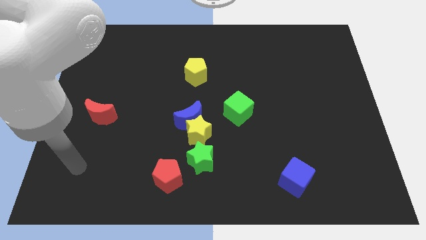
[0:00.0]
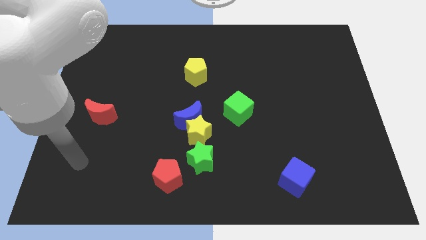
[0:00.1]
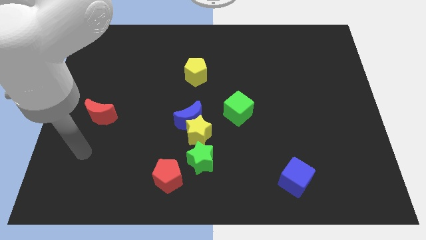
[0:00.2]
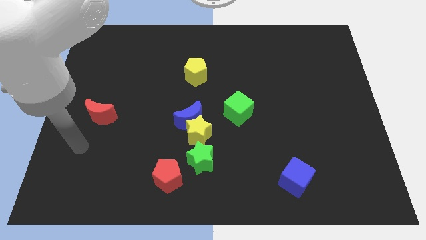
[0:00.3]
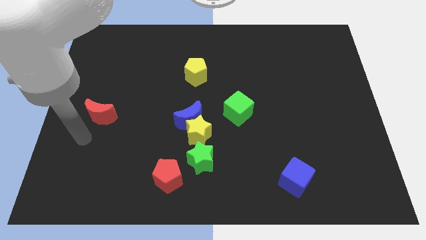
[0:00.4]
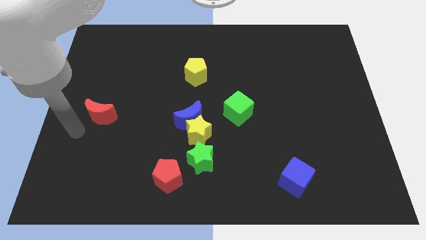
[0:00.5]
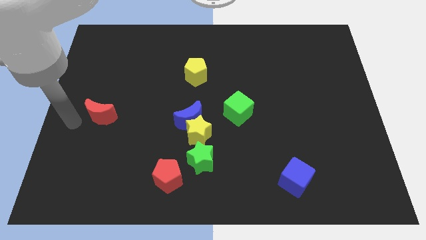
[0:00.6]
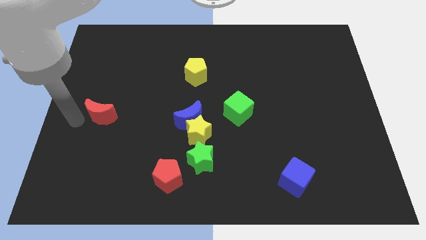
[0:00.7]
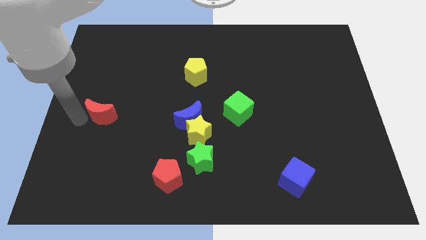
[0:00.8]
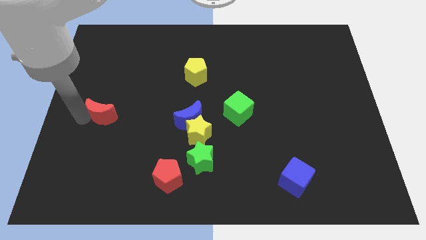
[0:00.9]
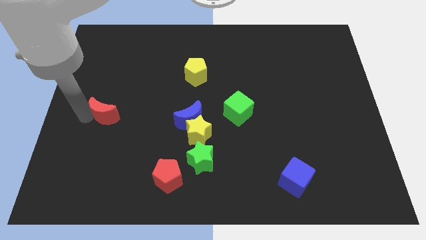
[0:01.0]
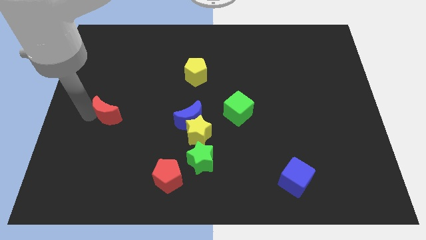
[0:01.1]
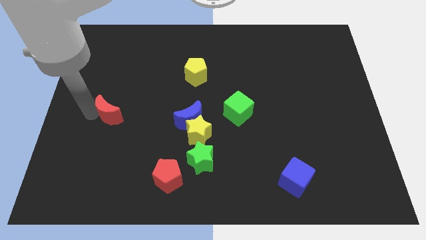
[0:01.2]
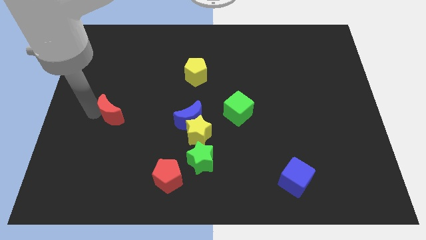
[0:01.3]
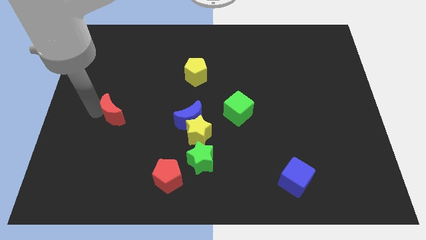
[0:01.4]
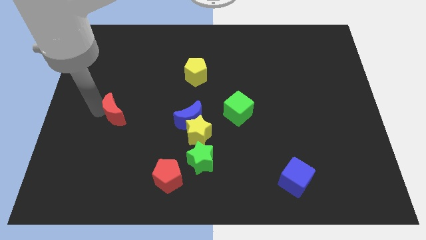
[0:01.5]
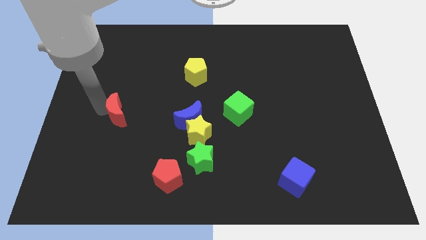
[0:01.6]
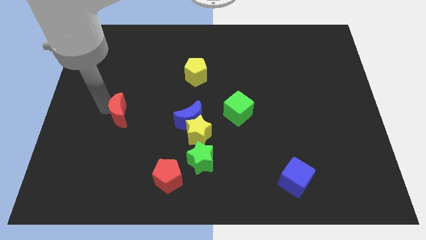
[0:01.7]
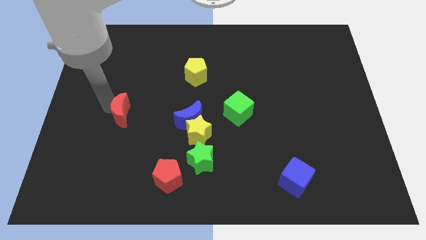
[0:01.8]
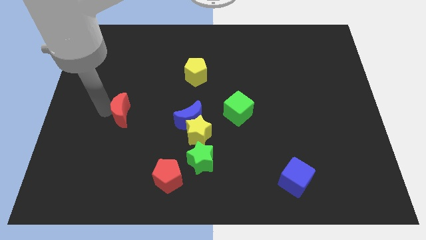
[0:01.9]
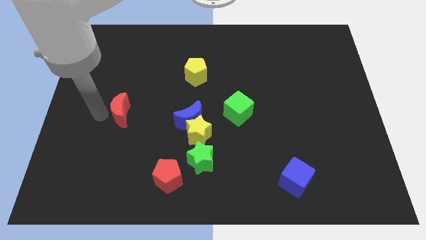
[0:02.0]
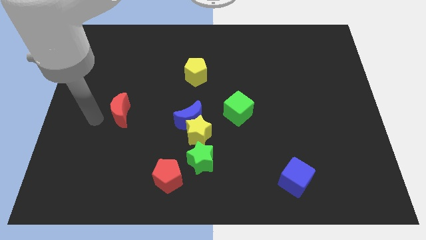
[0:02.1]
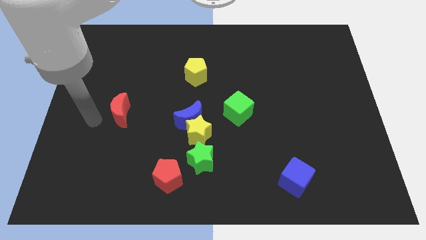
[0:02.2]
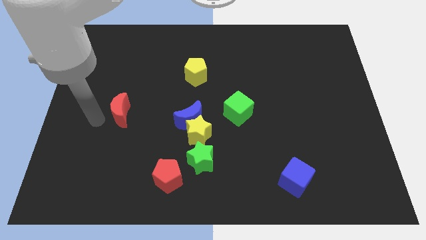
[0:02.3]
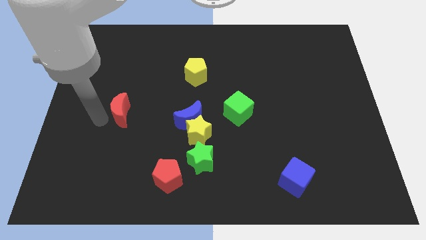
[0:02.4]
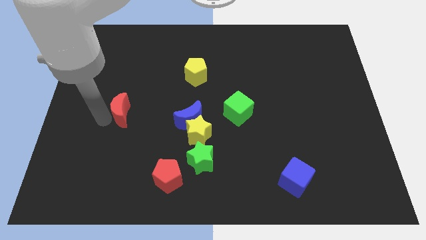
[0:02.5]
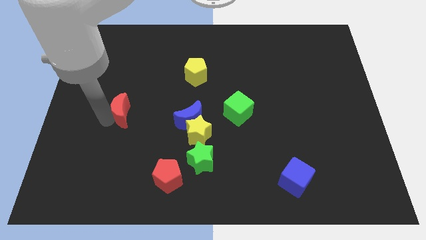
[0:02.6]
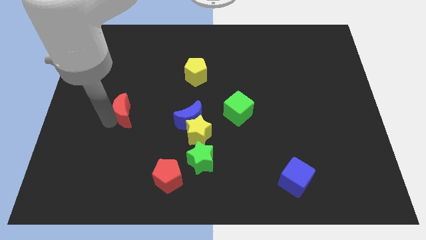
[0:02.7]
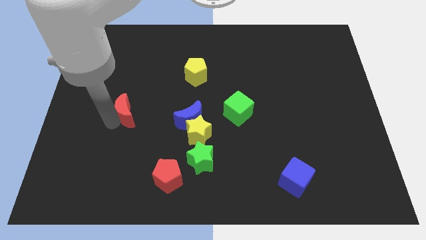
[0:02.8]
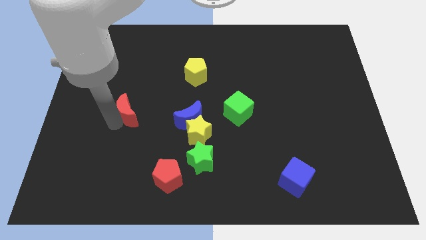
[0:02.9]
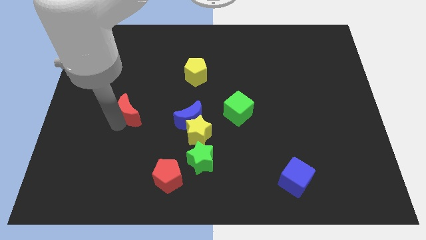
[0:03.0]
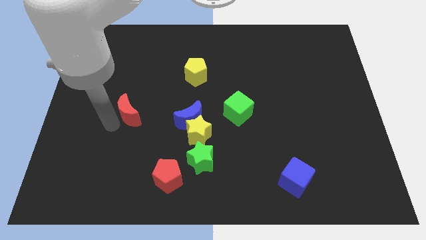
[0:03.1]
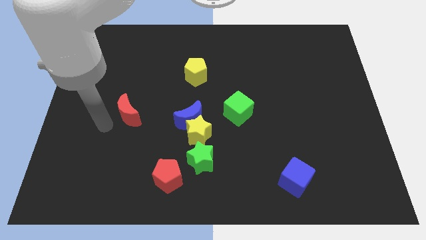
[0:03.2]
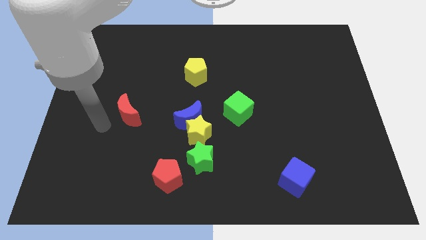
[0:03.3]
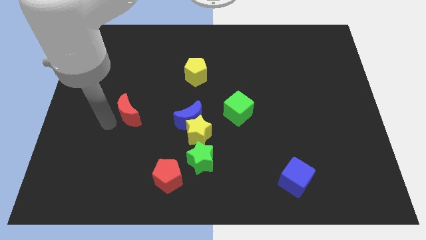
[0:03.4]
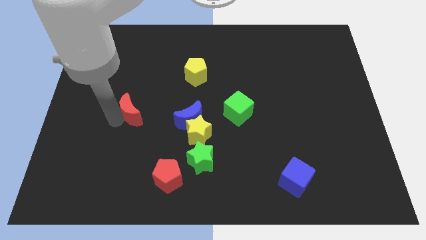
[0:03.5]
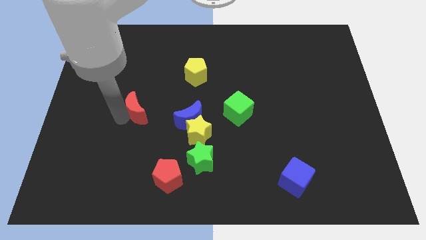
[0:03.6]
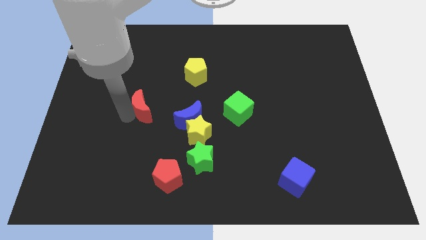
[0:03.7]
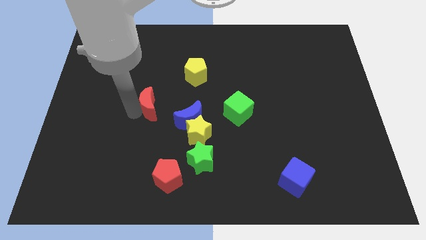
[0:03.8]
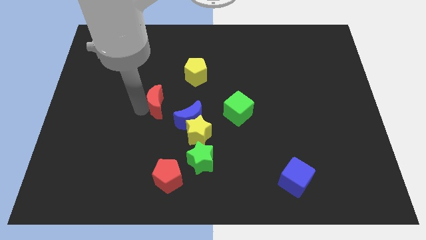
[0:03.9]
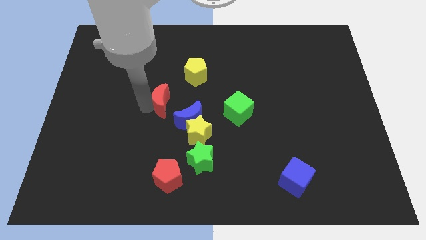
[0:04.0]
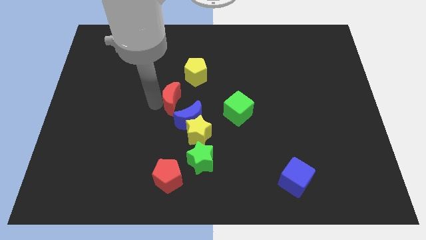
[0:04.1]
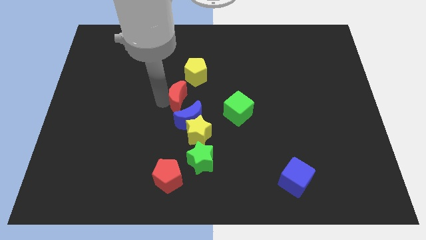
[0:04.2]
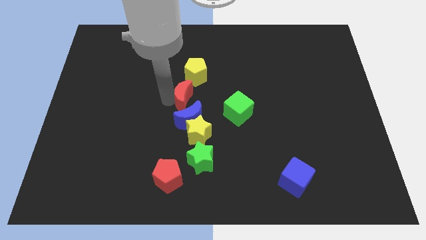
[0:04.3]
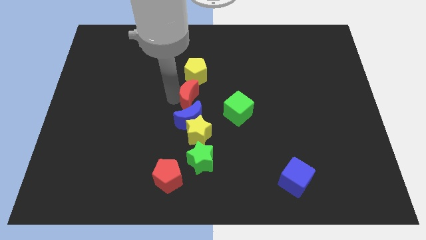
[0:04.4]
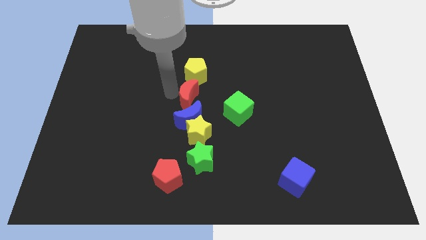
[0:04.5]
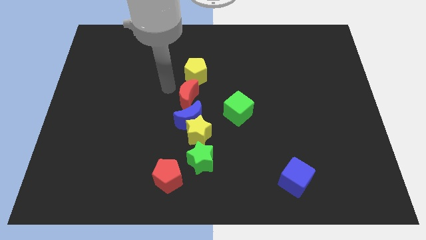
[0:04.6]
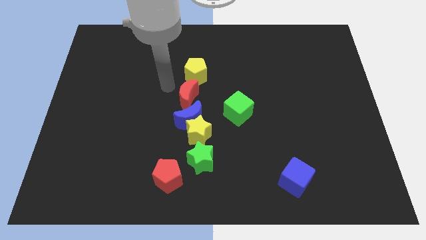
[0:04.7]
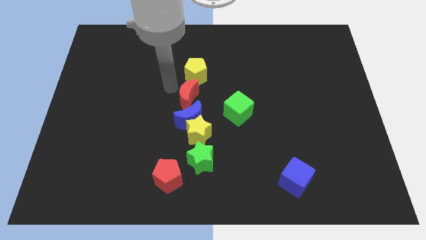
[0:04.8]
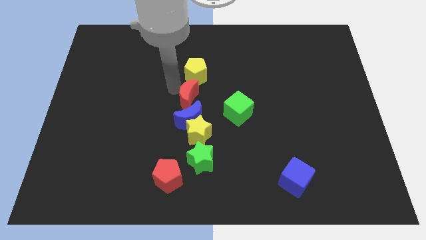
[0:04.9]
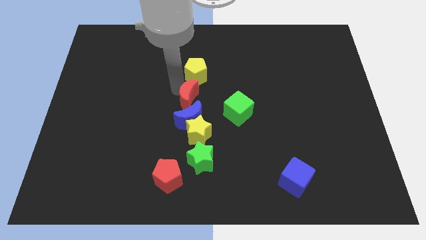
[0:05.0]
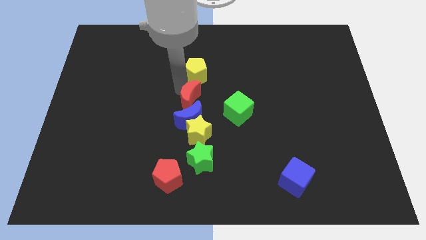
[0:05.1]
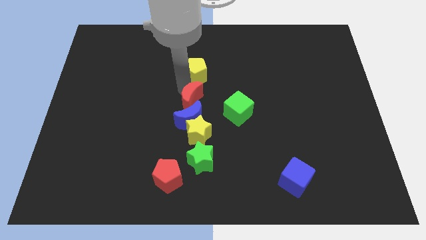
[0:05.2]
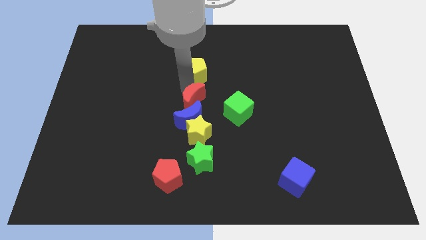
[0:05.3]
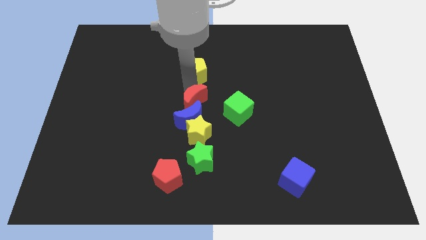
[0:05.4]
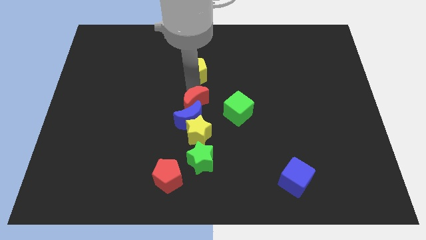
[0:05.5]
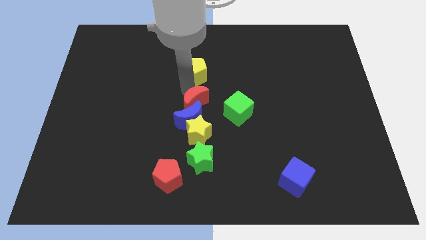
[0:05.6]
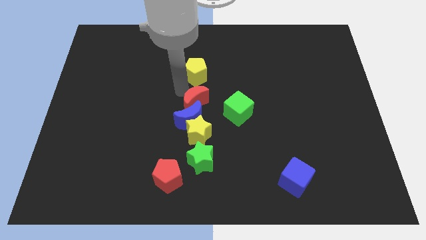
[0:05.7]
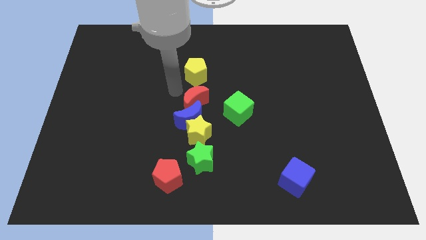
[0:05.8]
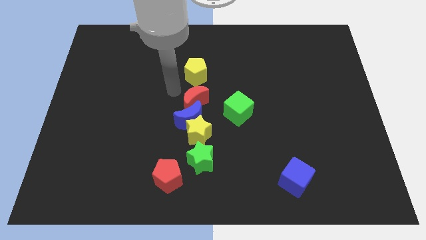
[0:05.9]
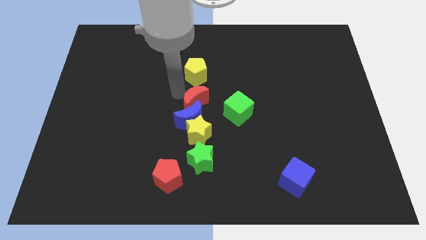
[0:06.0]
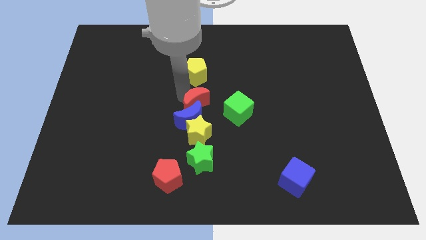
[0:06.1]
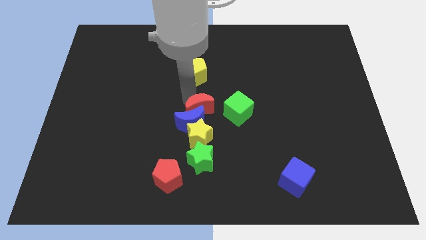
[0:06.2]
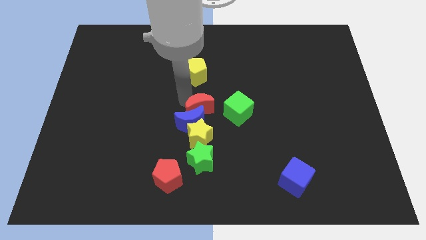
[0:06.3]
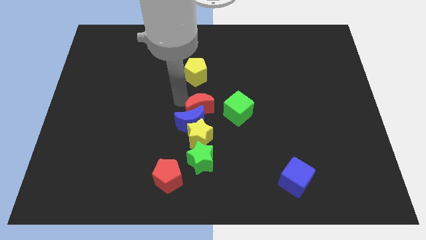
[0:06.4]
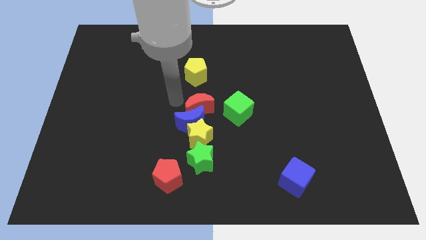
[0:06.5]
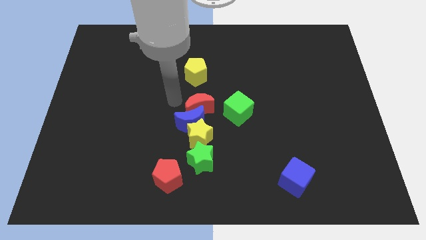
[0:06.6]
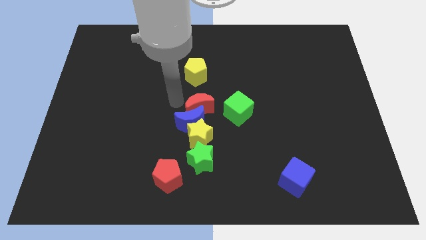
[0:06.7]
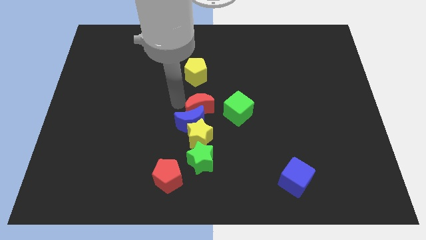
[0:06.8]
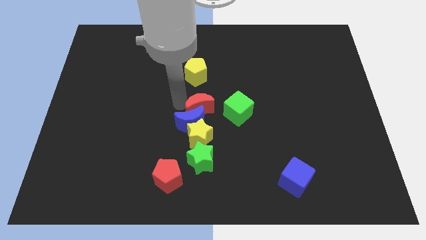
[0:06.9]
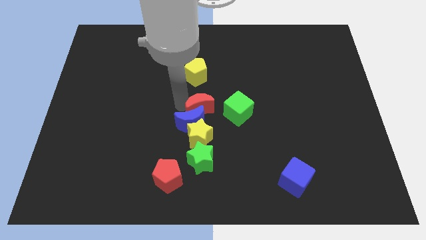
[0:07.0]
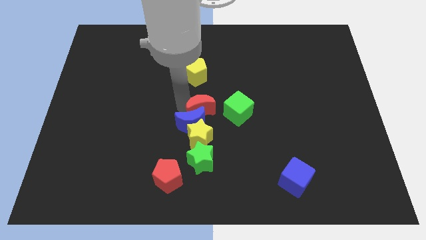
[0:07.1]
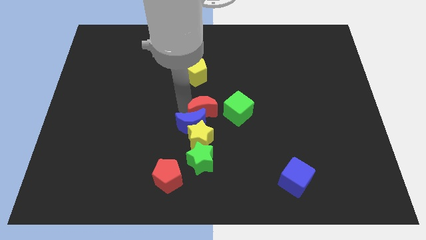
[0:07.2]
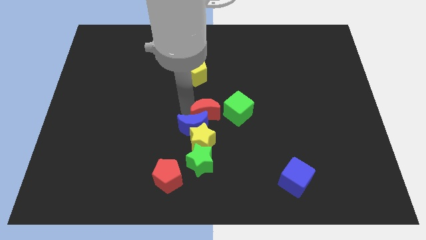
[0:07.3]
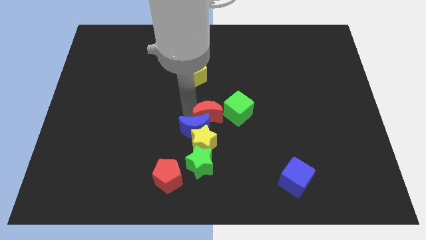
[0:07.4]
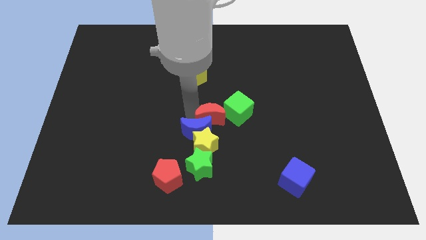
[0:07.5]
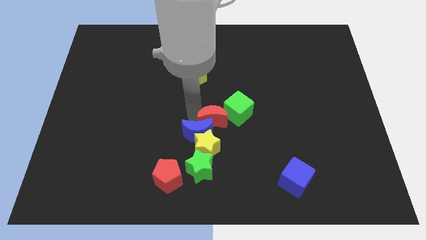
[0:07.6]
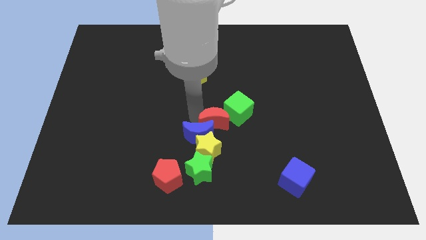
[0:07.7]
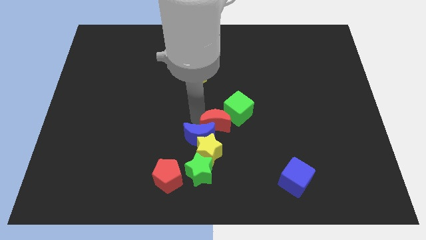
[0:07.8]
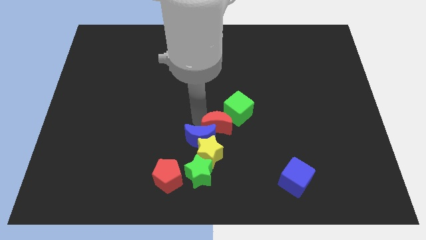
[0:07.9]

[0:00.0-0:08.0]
push the red moon below the green cube
